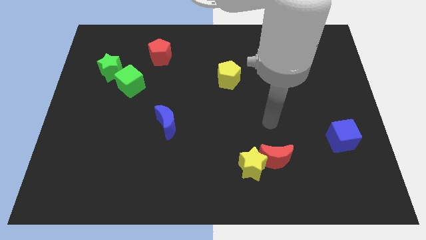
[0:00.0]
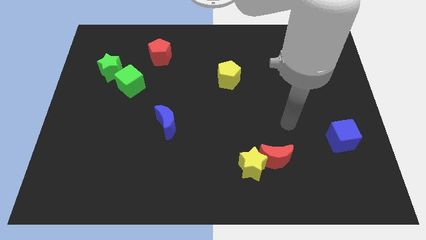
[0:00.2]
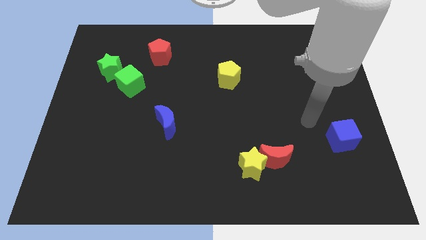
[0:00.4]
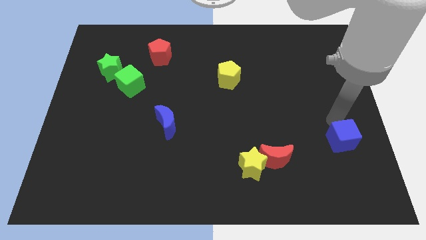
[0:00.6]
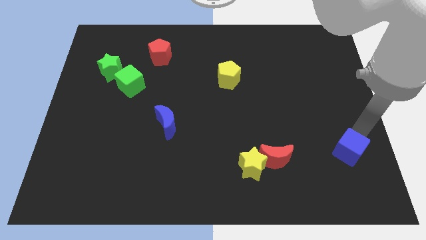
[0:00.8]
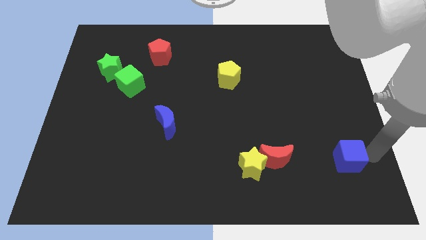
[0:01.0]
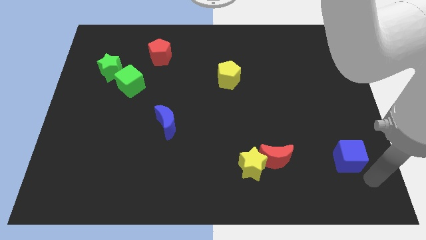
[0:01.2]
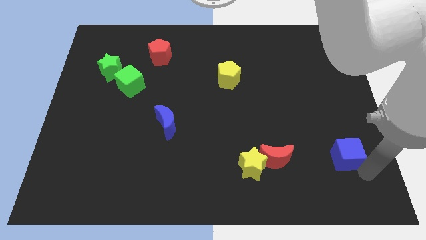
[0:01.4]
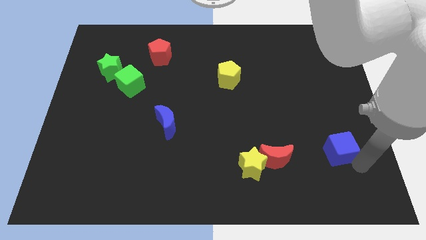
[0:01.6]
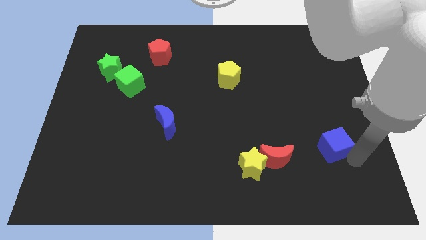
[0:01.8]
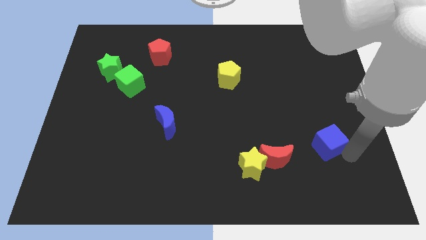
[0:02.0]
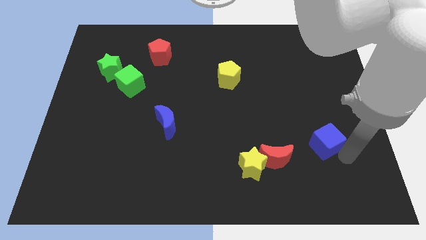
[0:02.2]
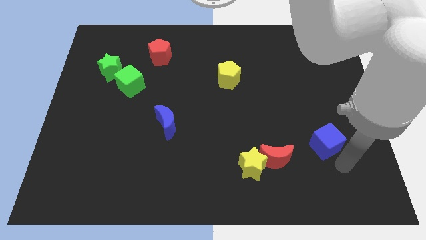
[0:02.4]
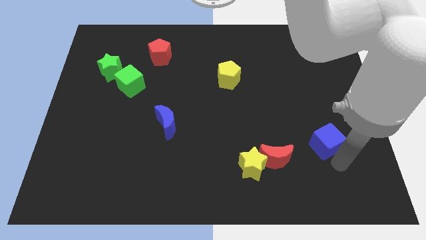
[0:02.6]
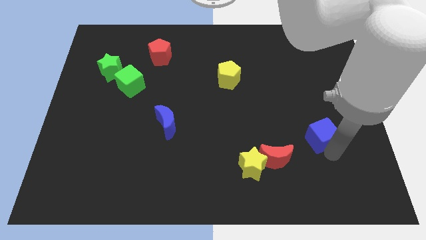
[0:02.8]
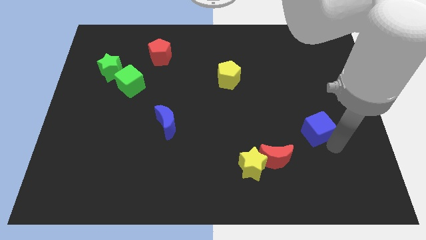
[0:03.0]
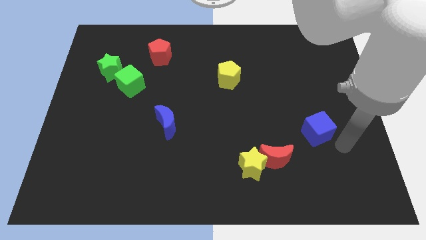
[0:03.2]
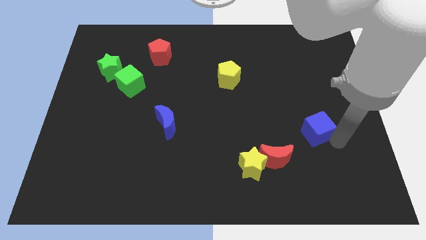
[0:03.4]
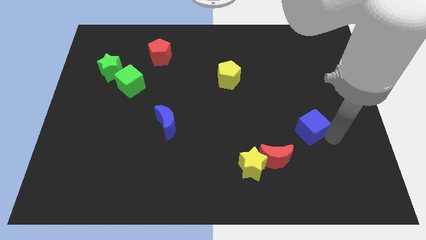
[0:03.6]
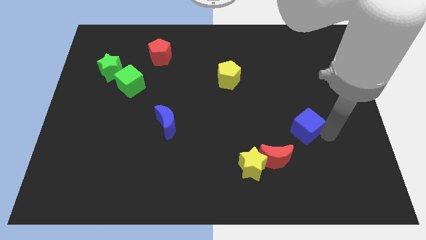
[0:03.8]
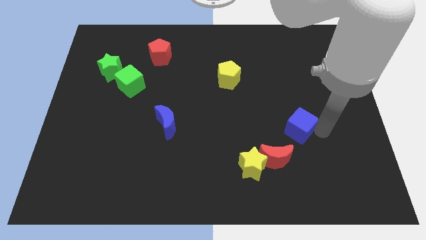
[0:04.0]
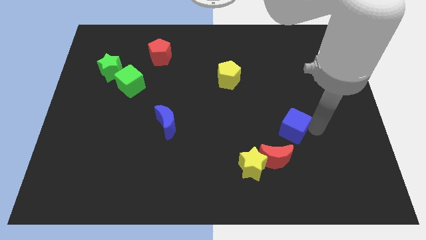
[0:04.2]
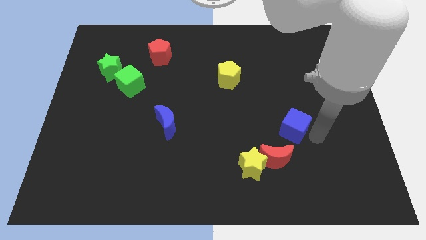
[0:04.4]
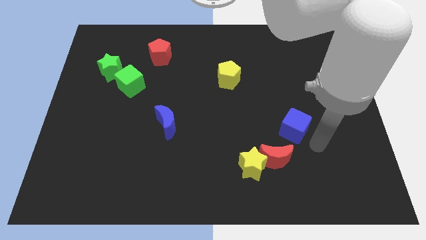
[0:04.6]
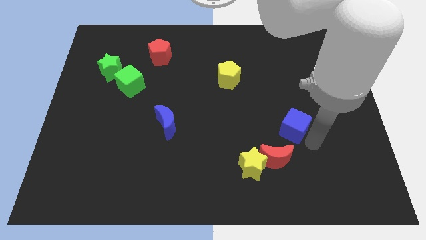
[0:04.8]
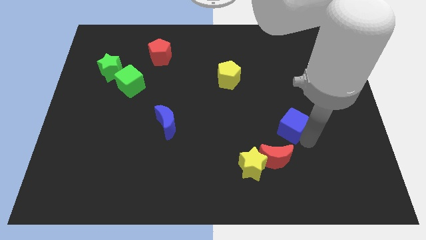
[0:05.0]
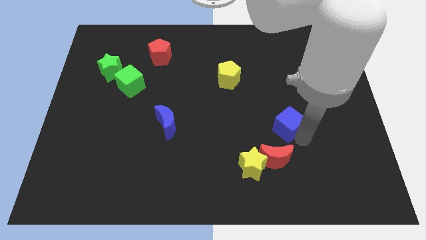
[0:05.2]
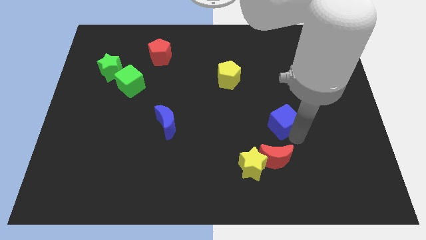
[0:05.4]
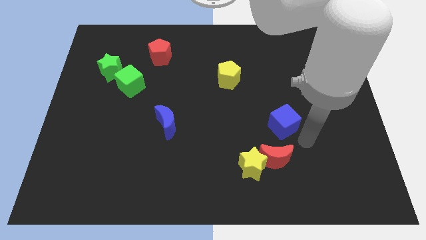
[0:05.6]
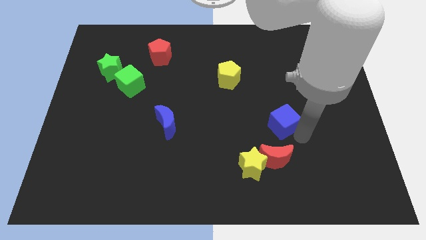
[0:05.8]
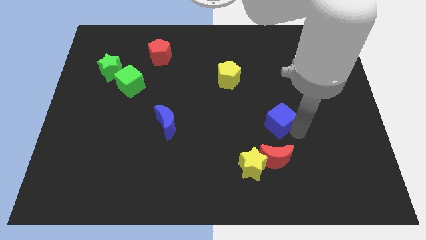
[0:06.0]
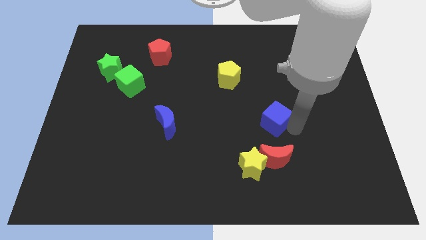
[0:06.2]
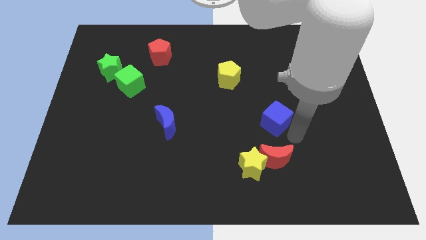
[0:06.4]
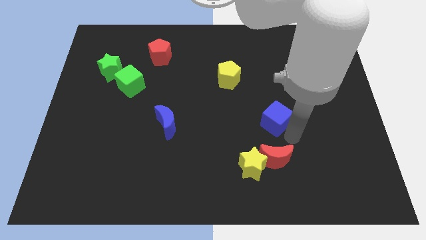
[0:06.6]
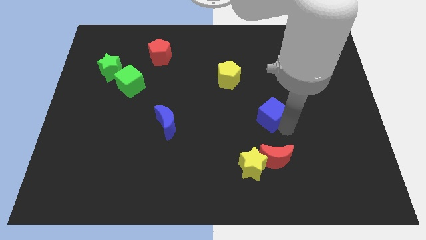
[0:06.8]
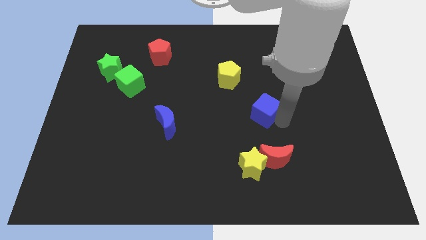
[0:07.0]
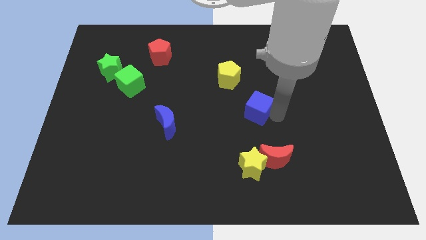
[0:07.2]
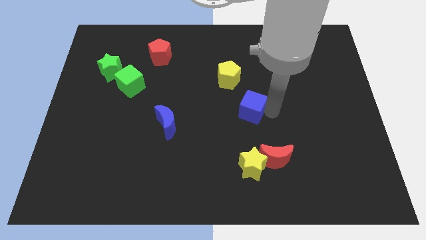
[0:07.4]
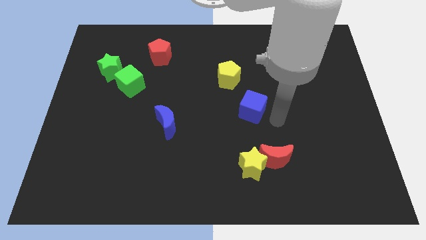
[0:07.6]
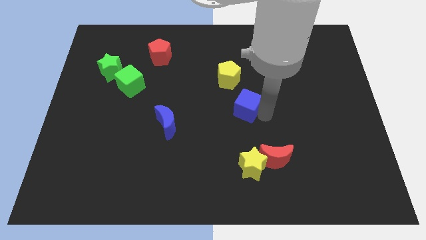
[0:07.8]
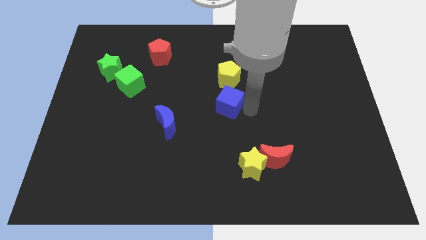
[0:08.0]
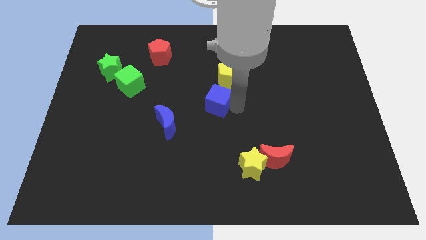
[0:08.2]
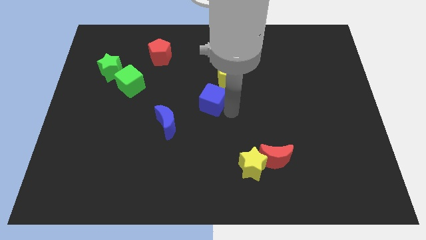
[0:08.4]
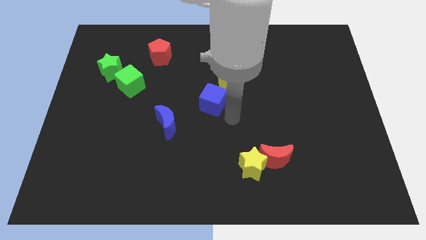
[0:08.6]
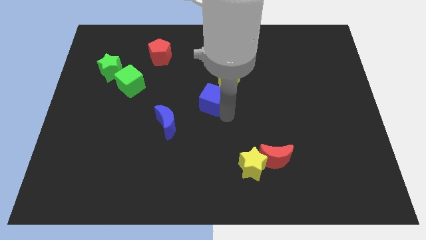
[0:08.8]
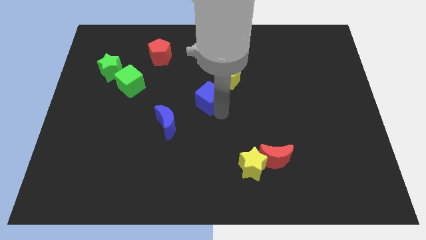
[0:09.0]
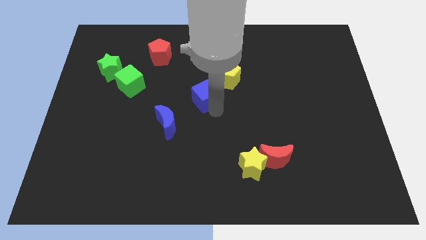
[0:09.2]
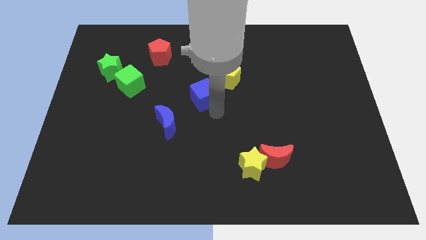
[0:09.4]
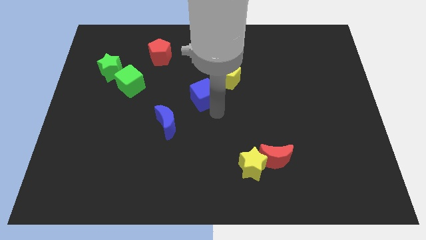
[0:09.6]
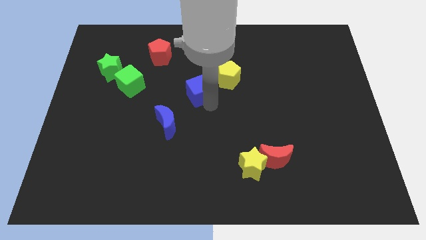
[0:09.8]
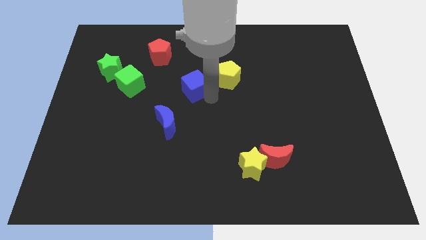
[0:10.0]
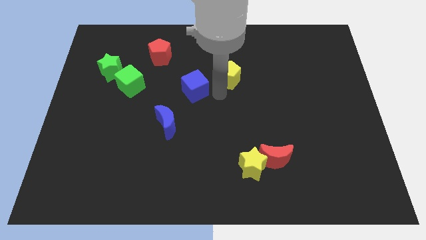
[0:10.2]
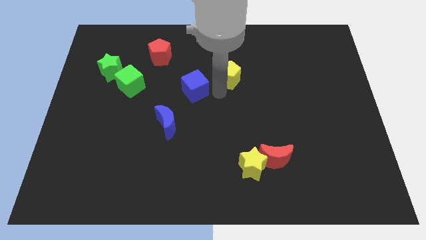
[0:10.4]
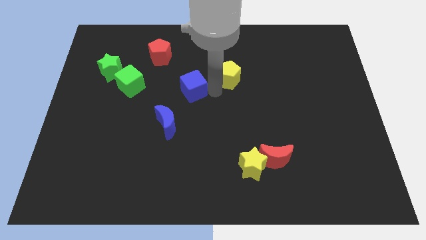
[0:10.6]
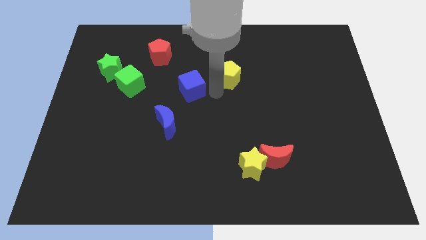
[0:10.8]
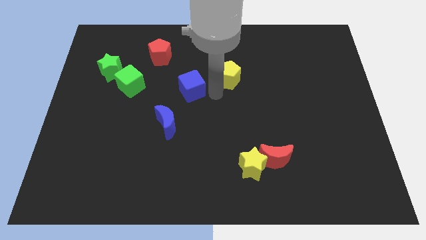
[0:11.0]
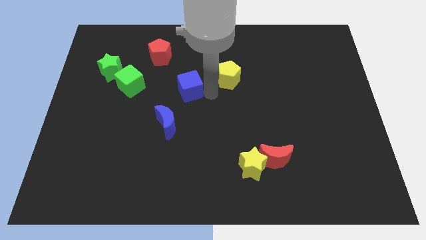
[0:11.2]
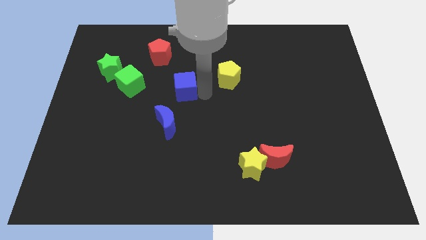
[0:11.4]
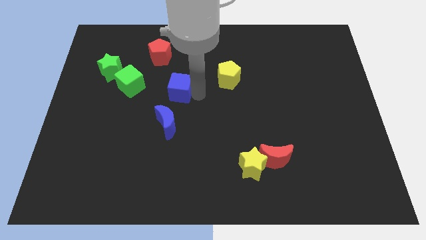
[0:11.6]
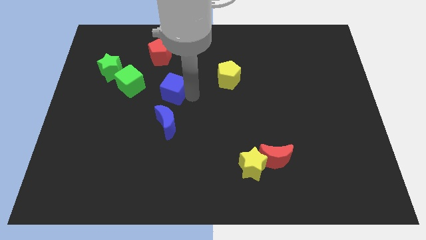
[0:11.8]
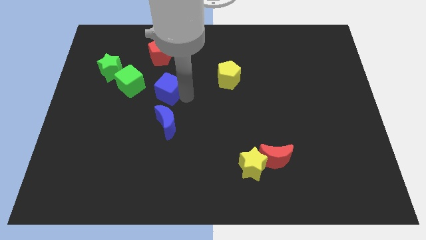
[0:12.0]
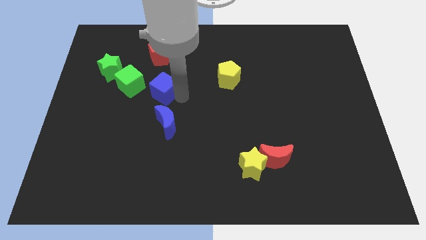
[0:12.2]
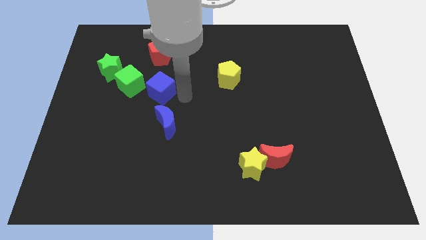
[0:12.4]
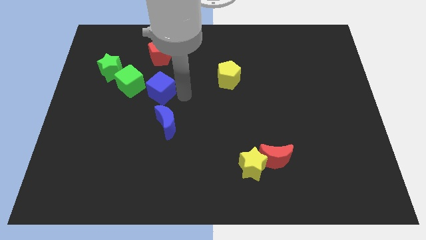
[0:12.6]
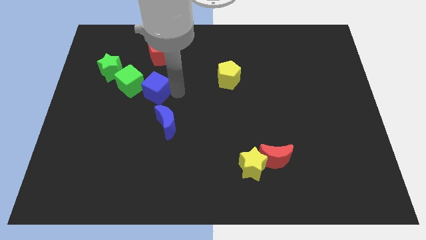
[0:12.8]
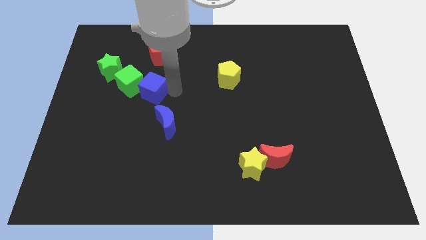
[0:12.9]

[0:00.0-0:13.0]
move the blue cube towards the green cube

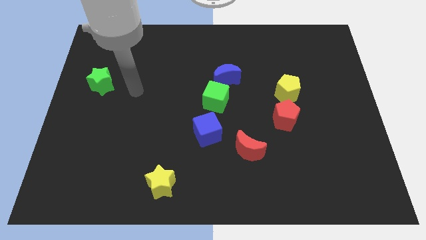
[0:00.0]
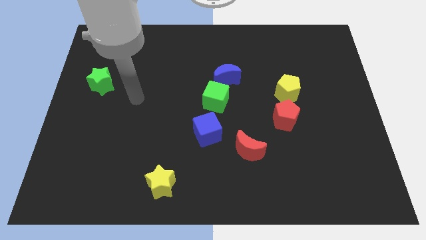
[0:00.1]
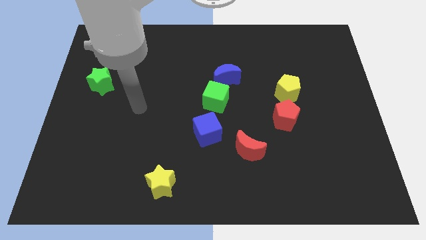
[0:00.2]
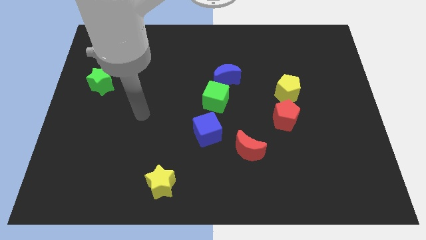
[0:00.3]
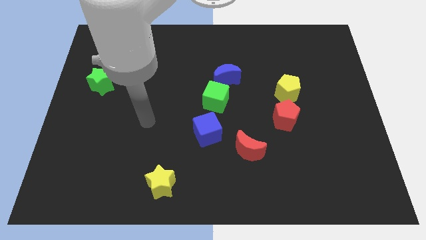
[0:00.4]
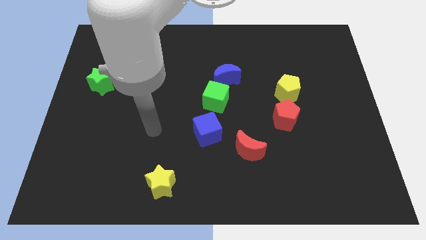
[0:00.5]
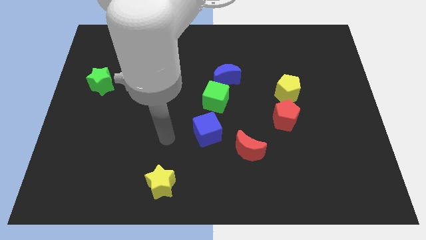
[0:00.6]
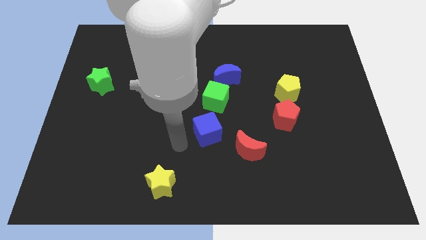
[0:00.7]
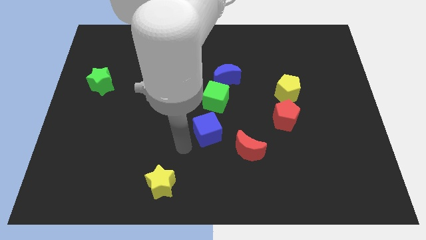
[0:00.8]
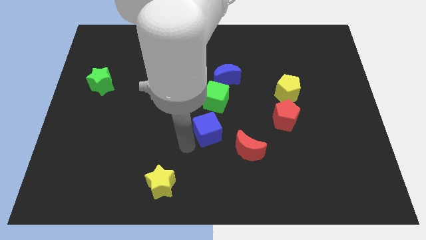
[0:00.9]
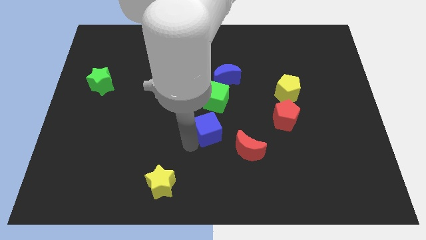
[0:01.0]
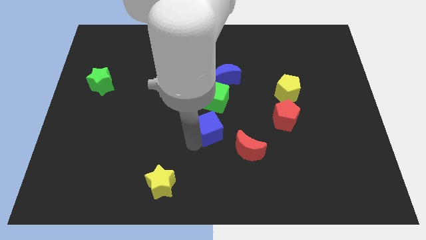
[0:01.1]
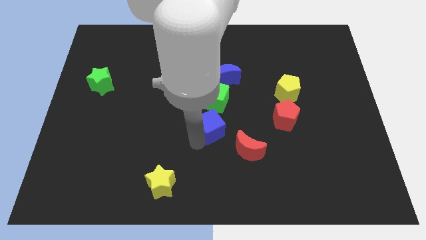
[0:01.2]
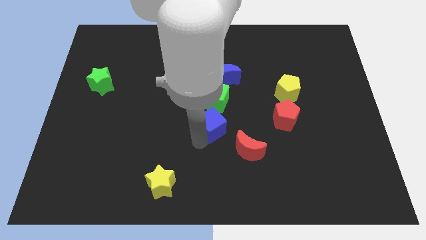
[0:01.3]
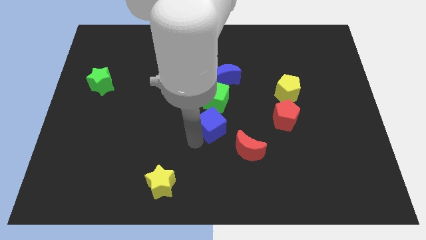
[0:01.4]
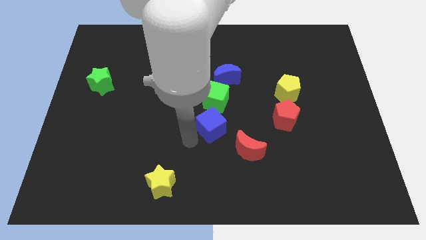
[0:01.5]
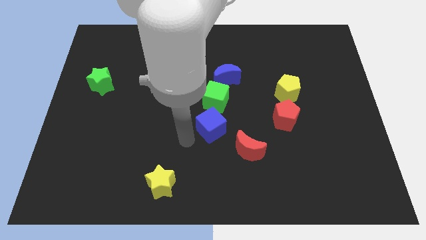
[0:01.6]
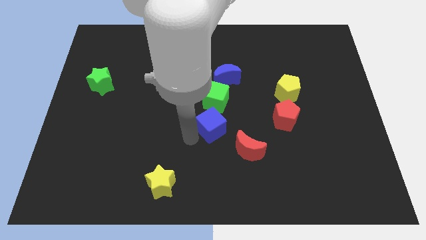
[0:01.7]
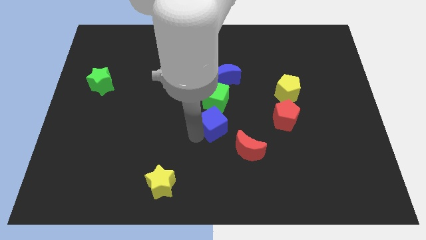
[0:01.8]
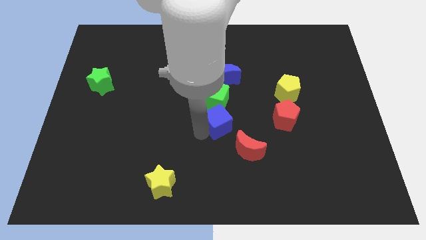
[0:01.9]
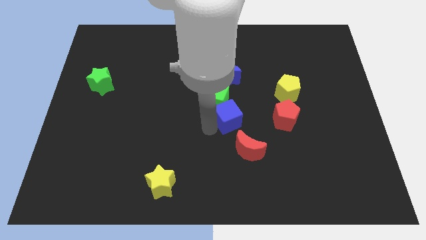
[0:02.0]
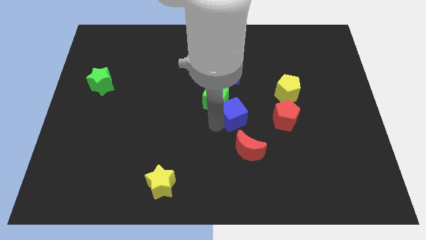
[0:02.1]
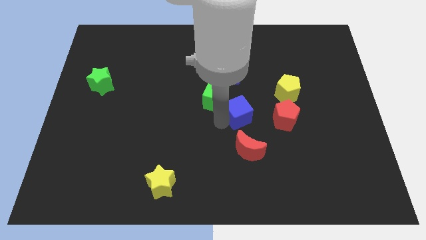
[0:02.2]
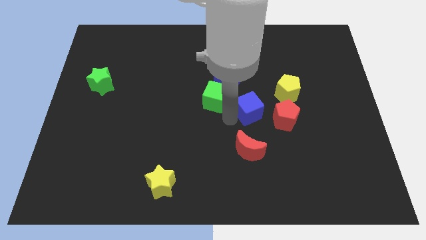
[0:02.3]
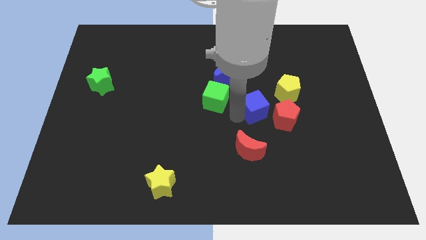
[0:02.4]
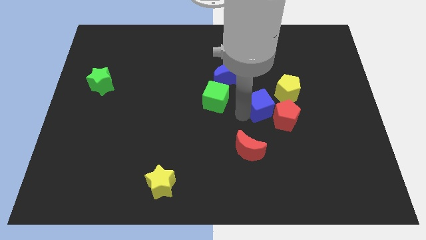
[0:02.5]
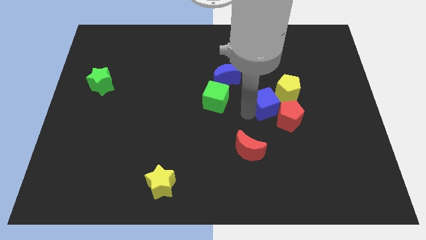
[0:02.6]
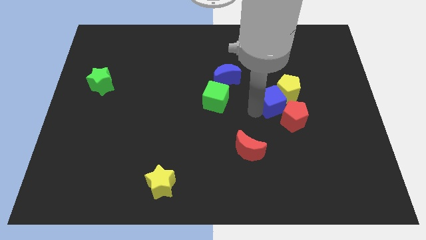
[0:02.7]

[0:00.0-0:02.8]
push the blue cube next to the yellow pentagon
